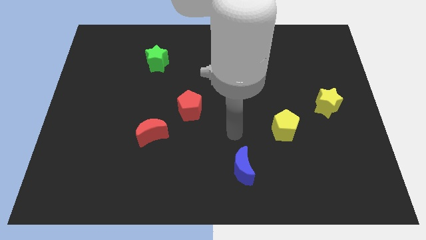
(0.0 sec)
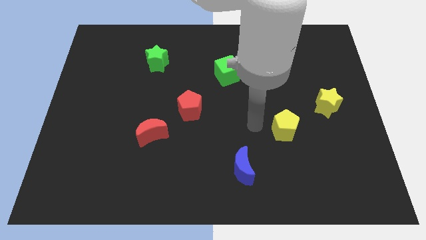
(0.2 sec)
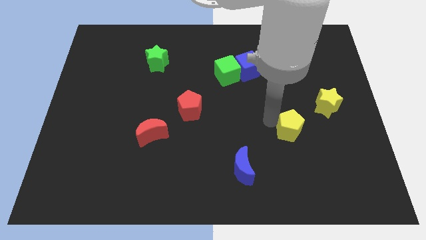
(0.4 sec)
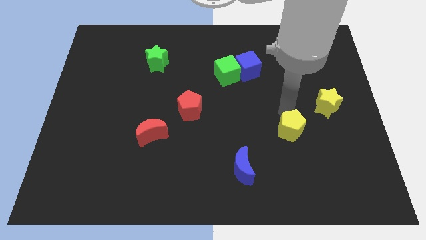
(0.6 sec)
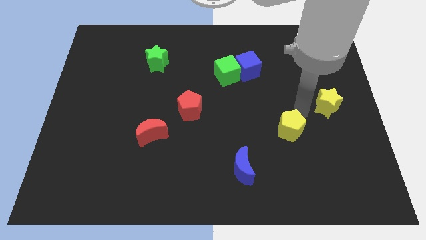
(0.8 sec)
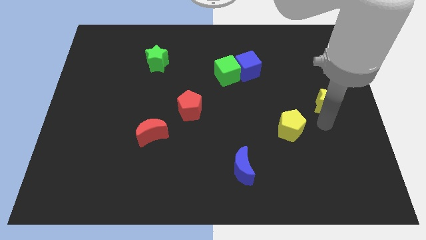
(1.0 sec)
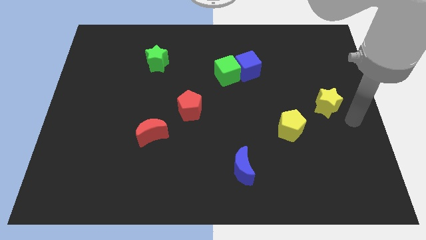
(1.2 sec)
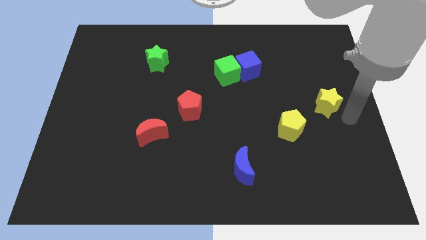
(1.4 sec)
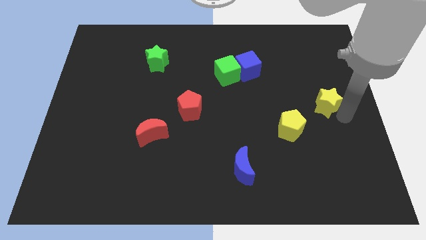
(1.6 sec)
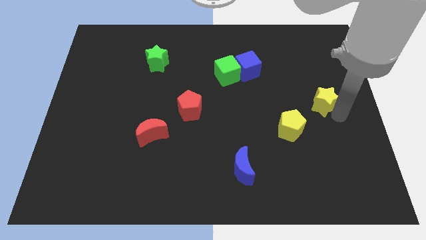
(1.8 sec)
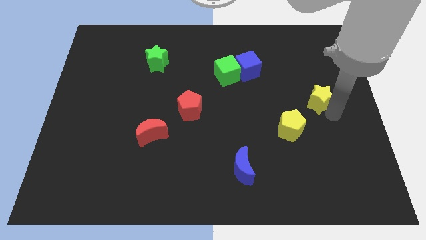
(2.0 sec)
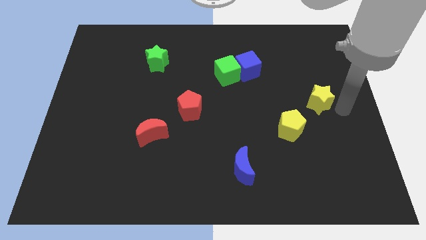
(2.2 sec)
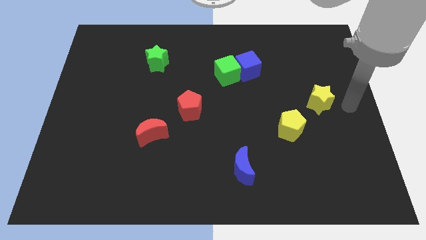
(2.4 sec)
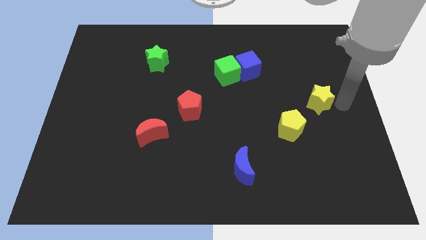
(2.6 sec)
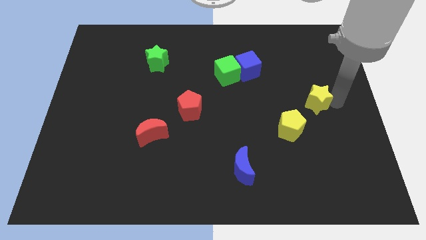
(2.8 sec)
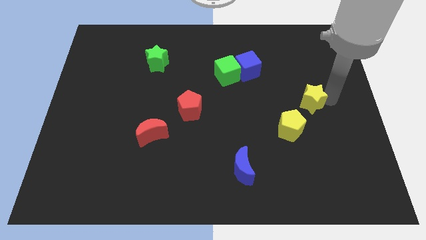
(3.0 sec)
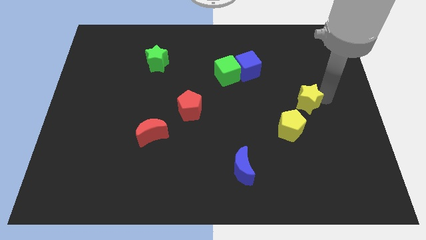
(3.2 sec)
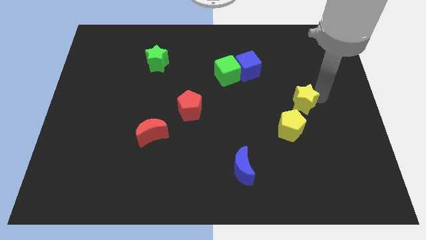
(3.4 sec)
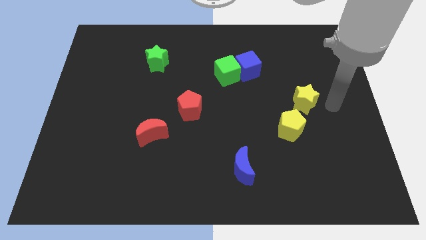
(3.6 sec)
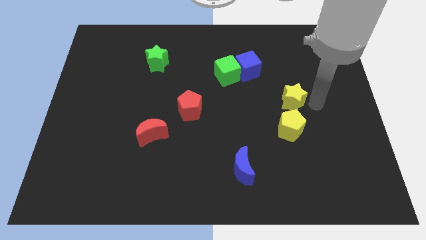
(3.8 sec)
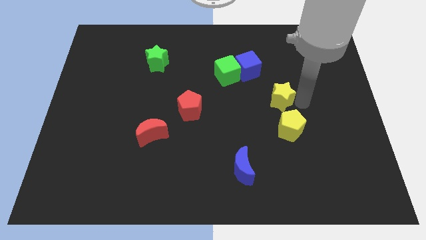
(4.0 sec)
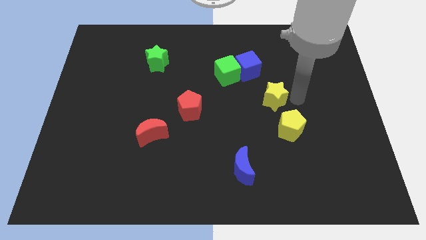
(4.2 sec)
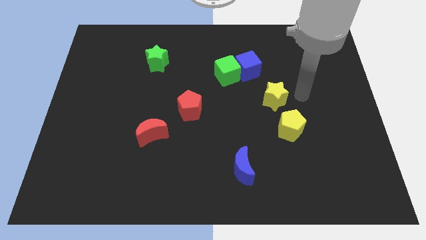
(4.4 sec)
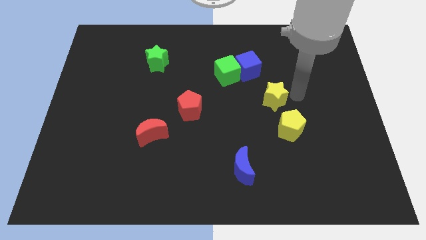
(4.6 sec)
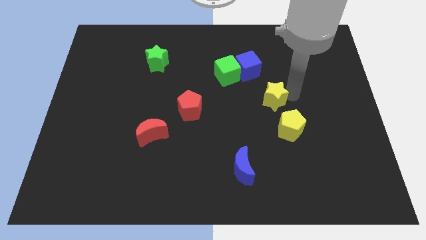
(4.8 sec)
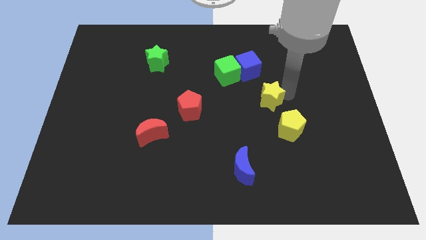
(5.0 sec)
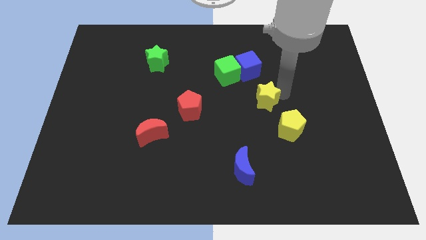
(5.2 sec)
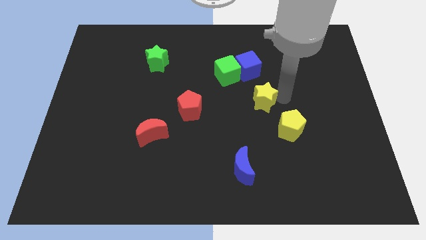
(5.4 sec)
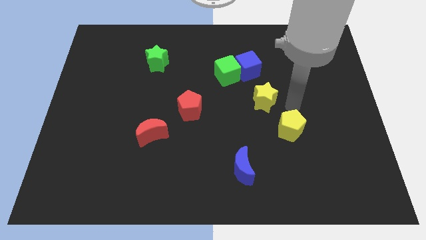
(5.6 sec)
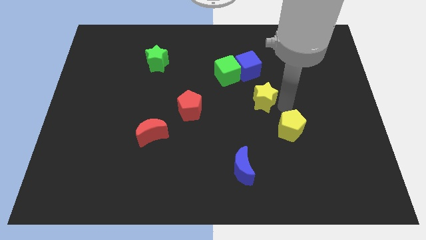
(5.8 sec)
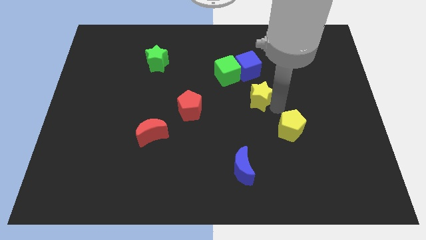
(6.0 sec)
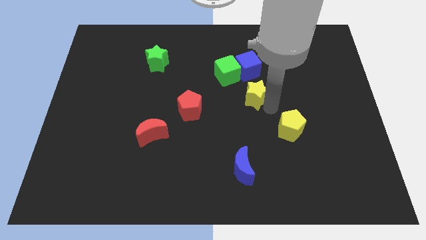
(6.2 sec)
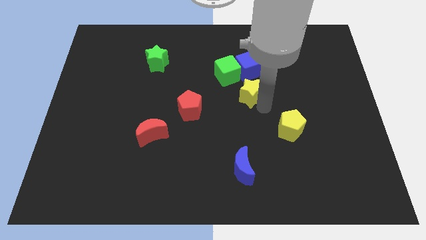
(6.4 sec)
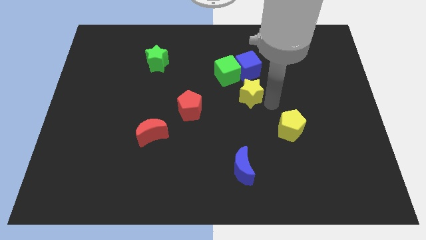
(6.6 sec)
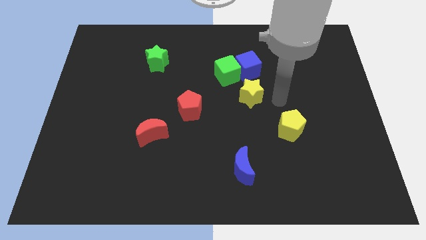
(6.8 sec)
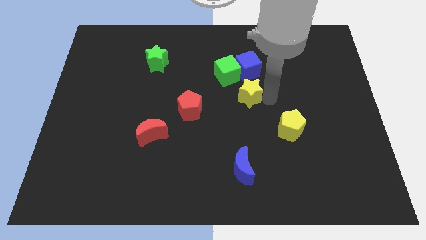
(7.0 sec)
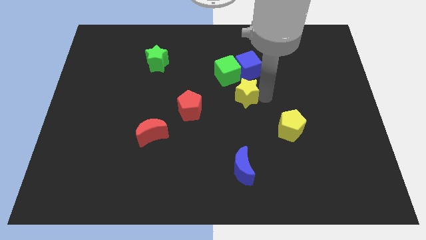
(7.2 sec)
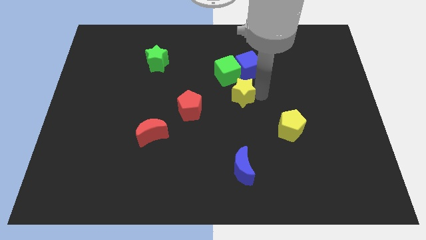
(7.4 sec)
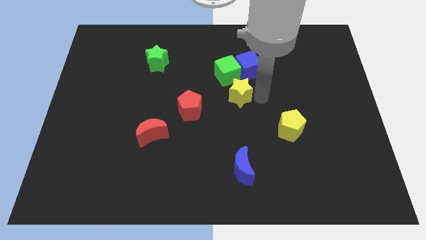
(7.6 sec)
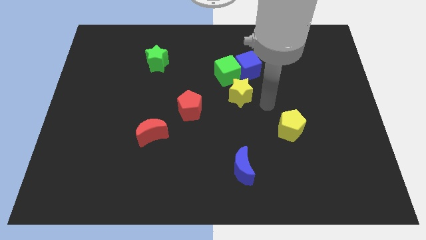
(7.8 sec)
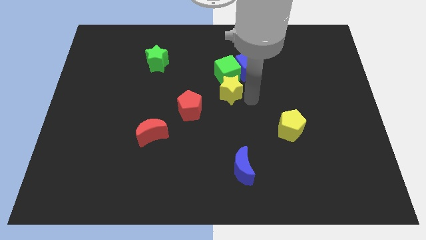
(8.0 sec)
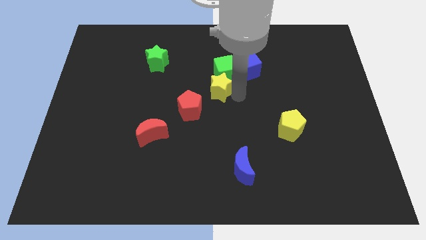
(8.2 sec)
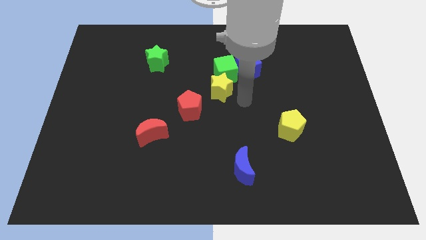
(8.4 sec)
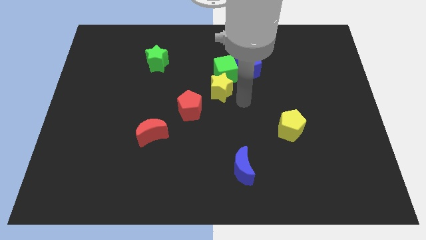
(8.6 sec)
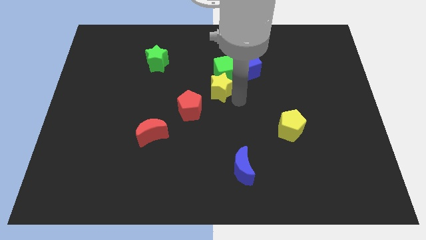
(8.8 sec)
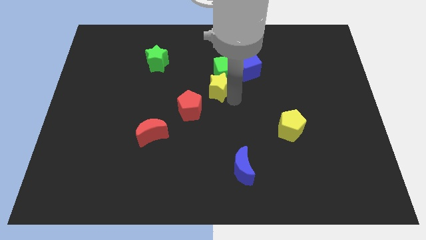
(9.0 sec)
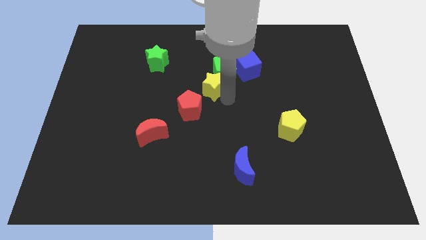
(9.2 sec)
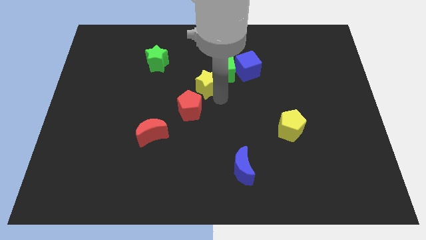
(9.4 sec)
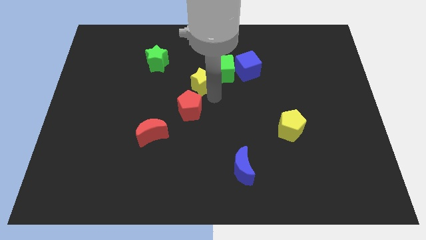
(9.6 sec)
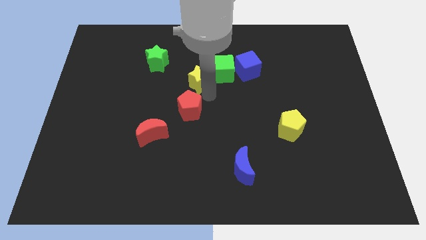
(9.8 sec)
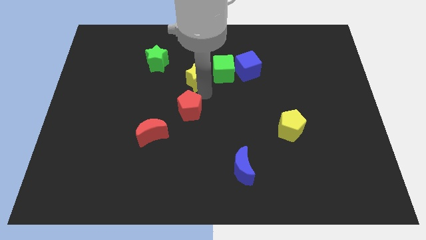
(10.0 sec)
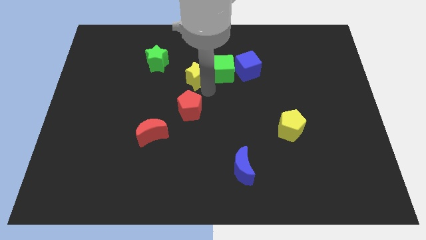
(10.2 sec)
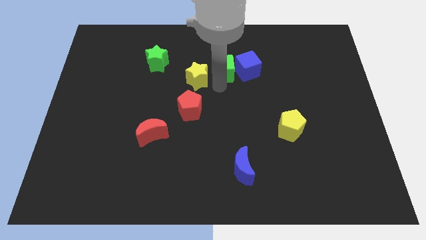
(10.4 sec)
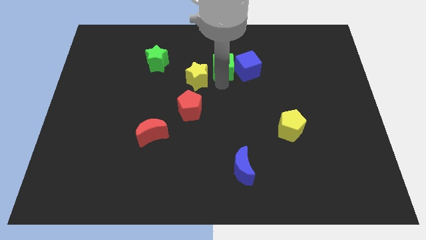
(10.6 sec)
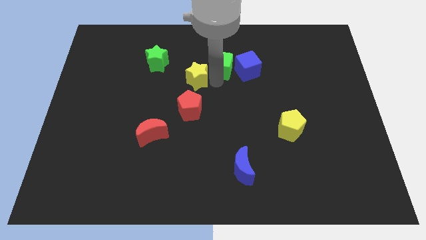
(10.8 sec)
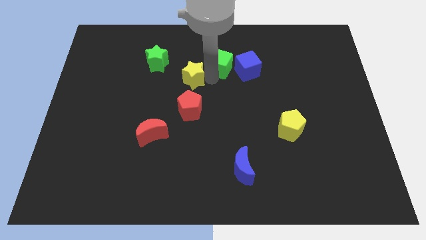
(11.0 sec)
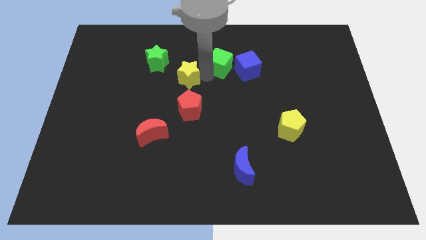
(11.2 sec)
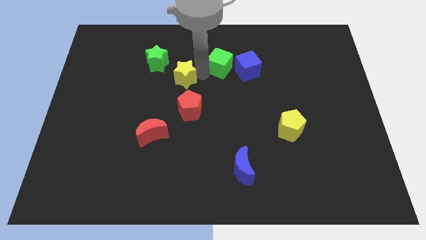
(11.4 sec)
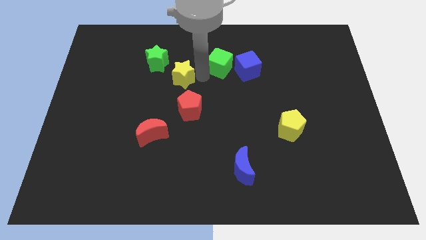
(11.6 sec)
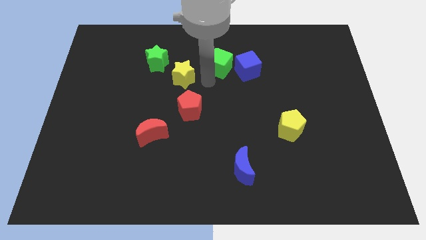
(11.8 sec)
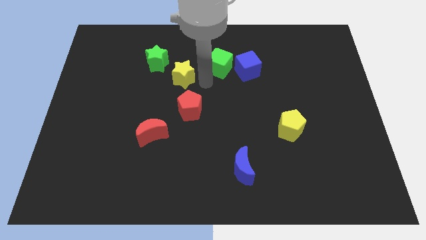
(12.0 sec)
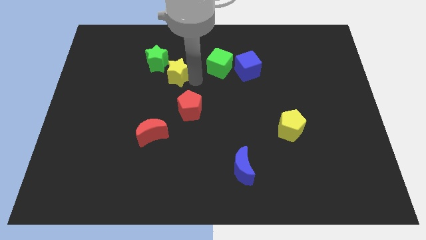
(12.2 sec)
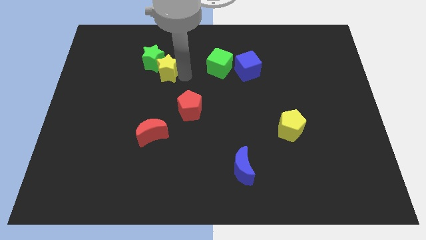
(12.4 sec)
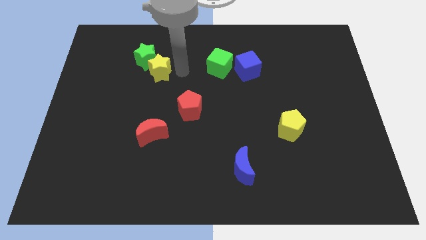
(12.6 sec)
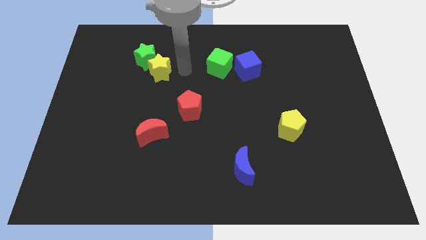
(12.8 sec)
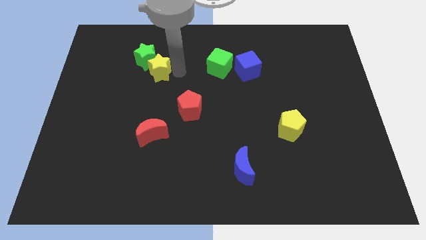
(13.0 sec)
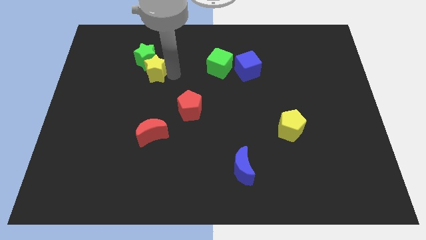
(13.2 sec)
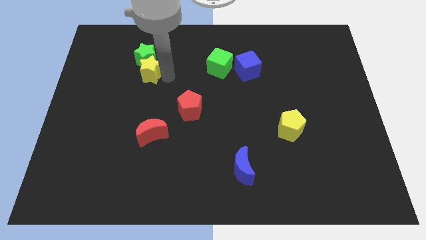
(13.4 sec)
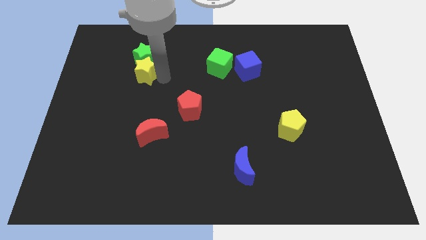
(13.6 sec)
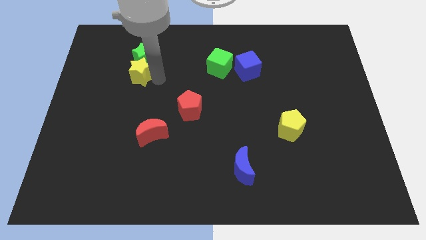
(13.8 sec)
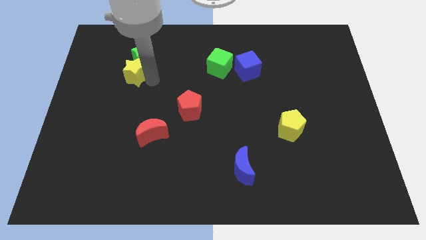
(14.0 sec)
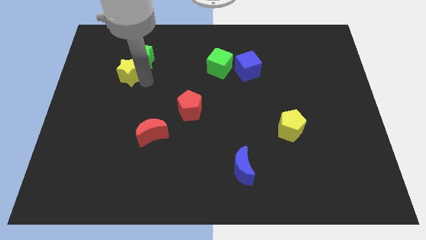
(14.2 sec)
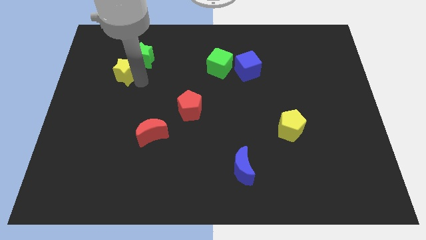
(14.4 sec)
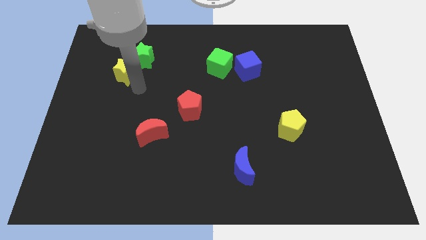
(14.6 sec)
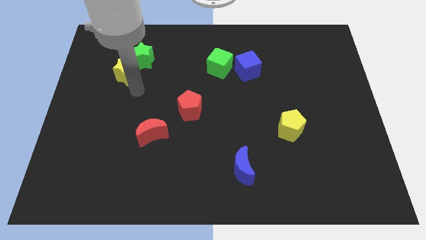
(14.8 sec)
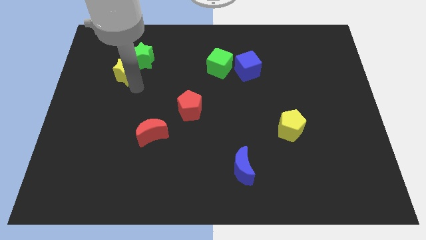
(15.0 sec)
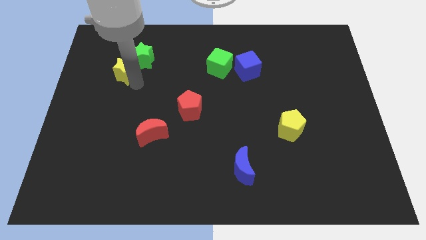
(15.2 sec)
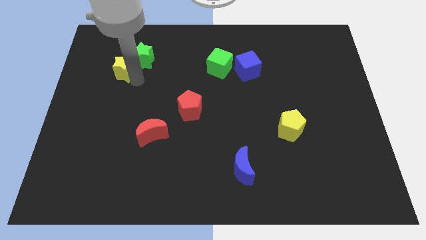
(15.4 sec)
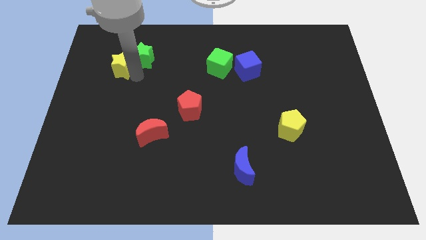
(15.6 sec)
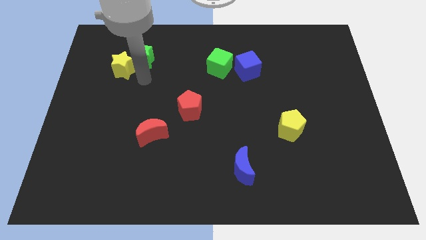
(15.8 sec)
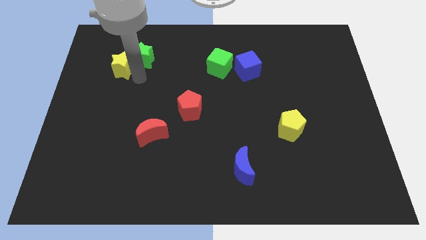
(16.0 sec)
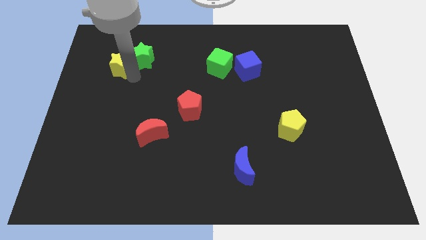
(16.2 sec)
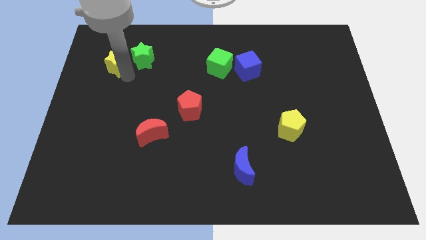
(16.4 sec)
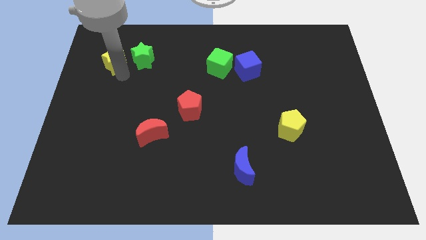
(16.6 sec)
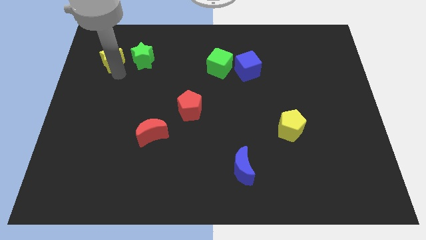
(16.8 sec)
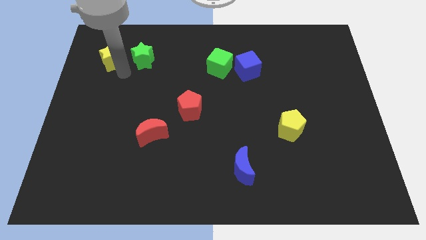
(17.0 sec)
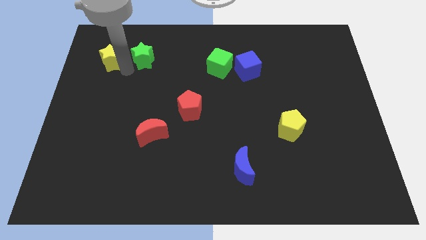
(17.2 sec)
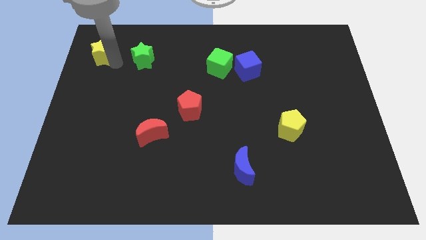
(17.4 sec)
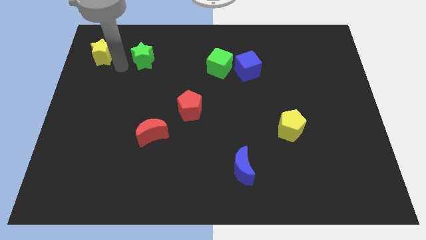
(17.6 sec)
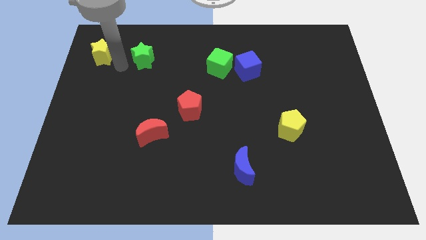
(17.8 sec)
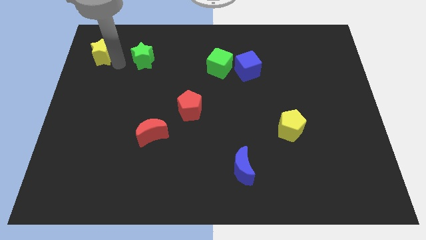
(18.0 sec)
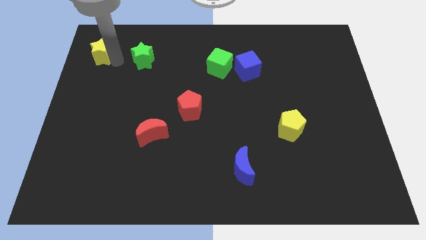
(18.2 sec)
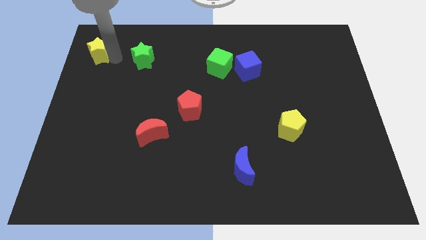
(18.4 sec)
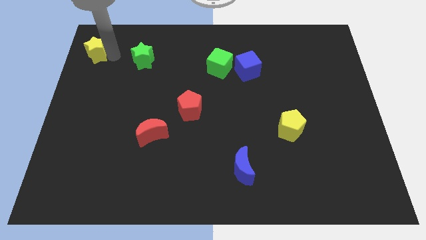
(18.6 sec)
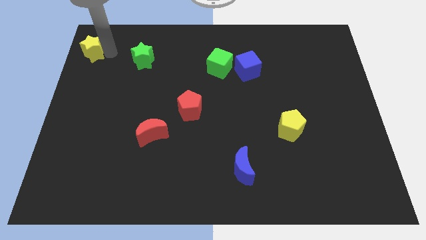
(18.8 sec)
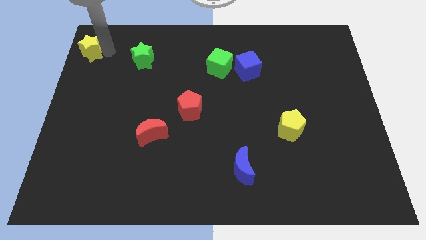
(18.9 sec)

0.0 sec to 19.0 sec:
push the yellow star to the upper left corner
